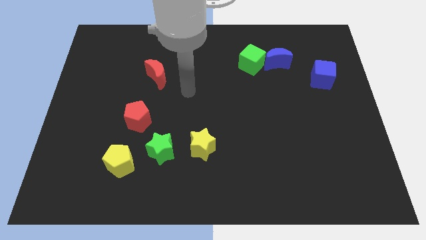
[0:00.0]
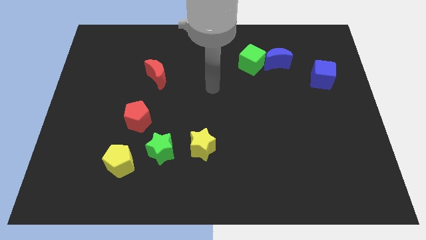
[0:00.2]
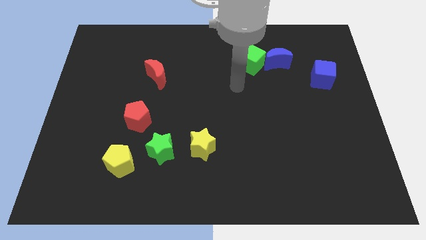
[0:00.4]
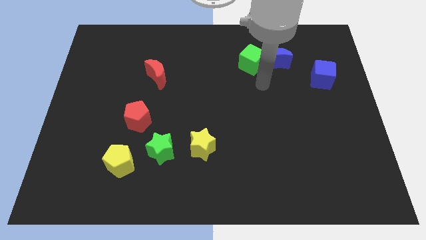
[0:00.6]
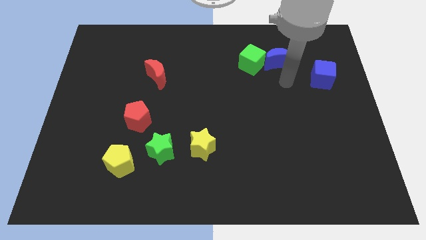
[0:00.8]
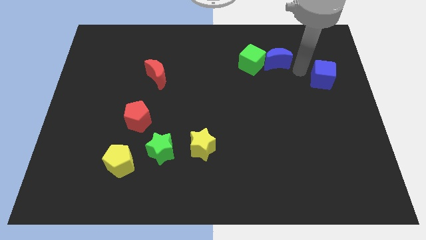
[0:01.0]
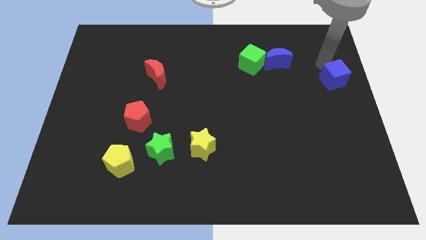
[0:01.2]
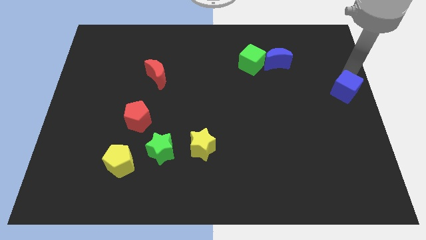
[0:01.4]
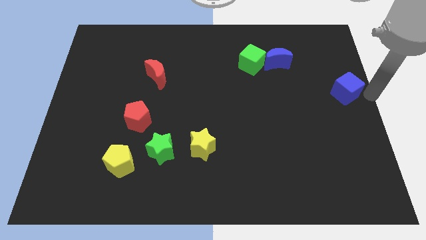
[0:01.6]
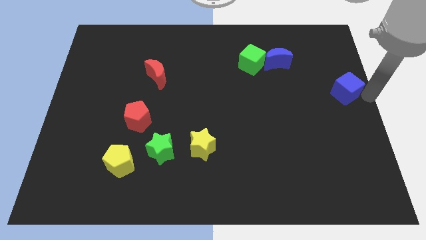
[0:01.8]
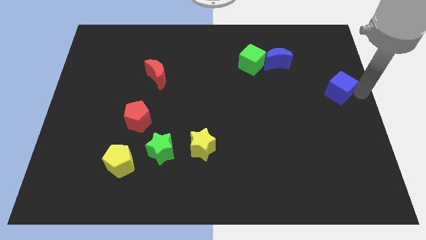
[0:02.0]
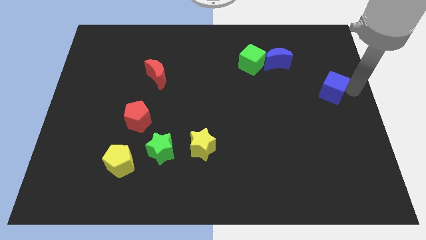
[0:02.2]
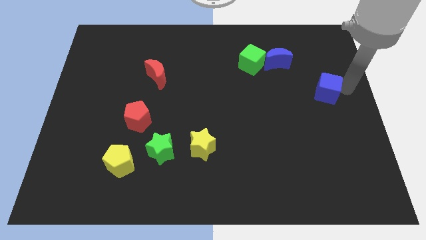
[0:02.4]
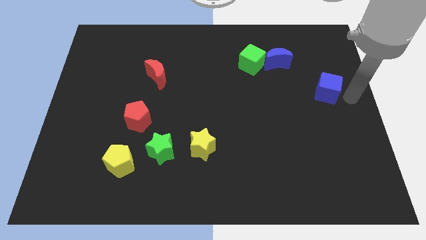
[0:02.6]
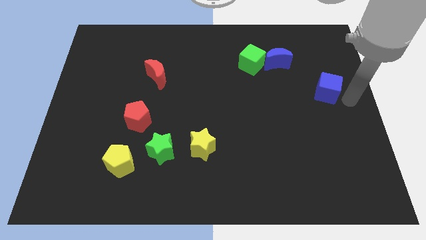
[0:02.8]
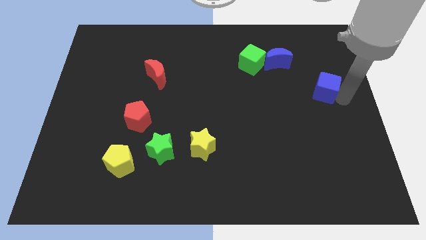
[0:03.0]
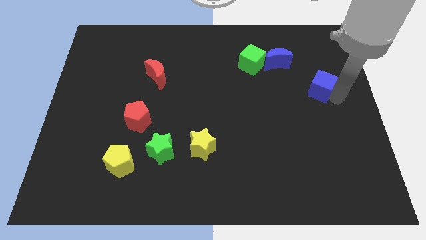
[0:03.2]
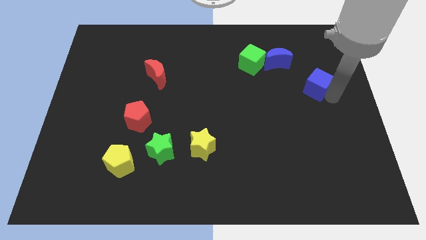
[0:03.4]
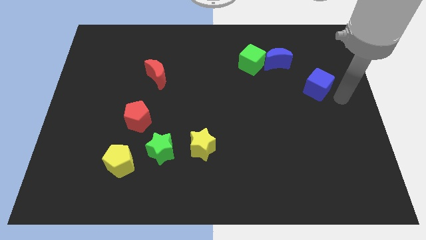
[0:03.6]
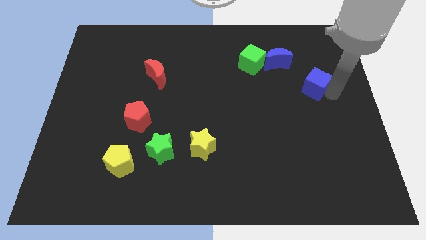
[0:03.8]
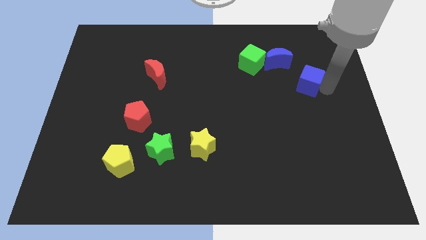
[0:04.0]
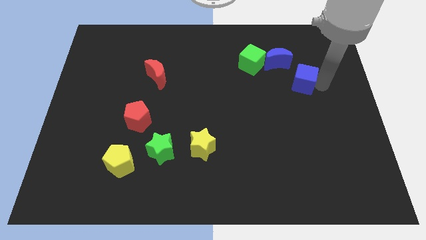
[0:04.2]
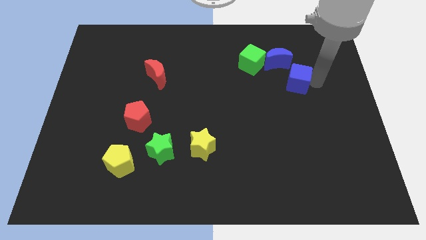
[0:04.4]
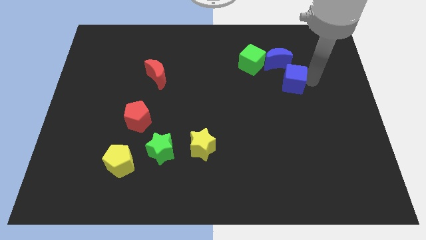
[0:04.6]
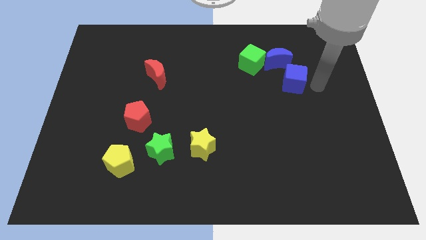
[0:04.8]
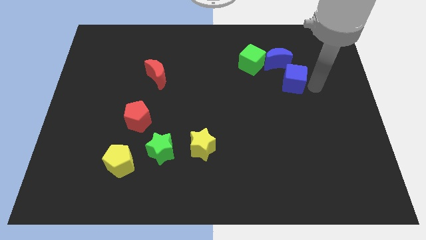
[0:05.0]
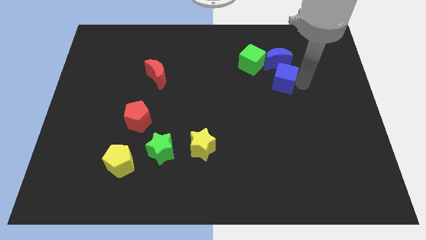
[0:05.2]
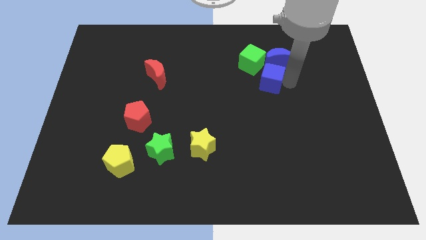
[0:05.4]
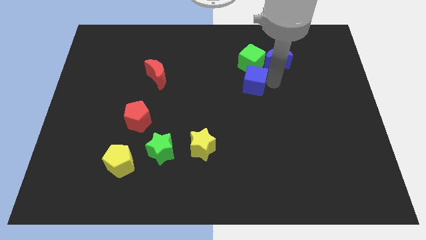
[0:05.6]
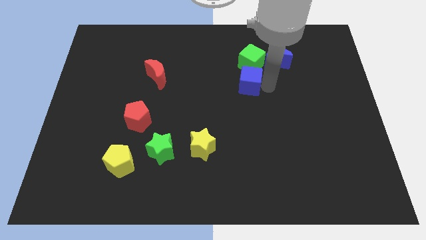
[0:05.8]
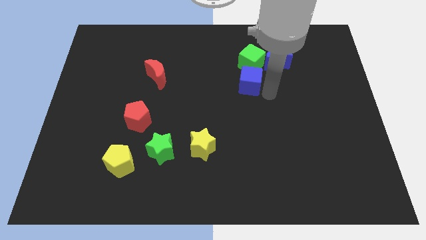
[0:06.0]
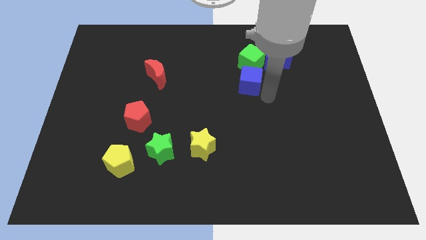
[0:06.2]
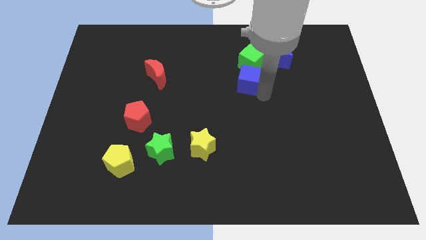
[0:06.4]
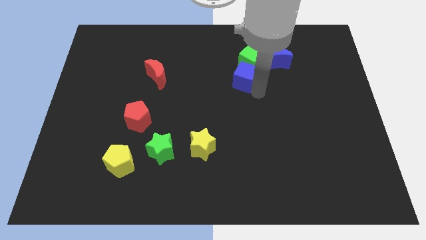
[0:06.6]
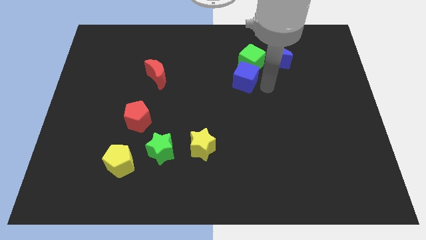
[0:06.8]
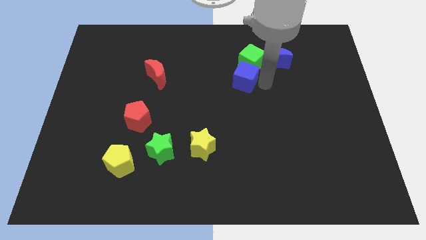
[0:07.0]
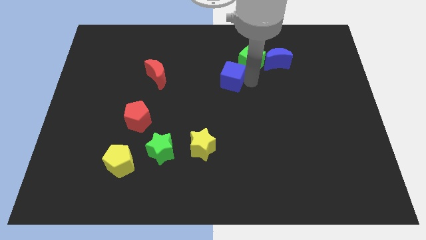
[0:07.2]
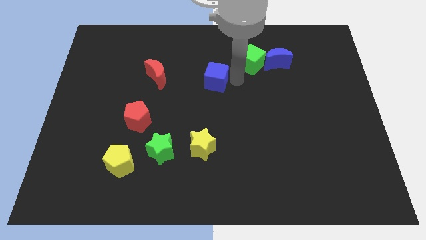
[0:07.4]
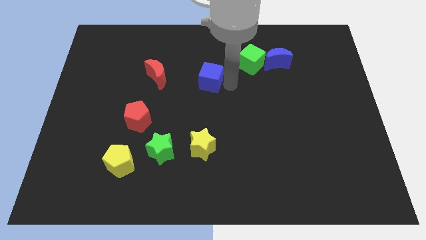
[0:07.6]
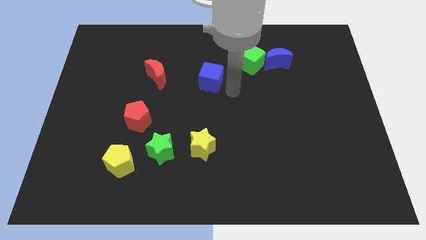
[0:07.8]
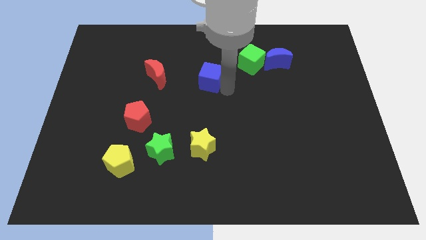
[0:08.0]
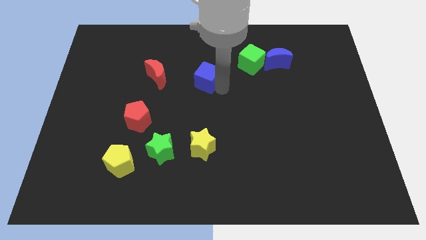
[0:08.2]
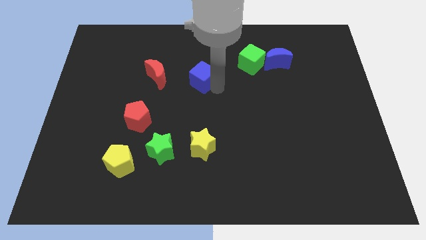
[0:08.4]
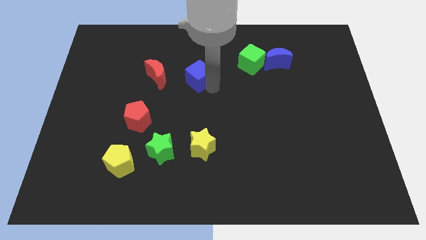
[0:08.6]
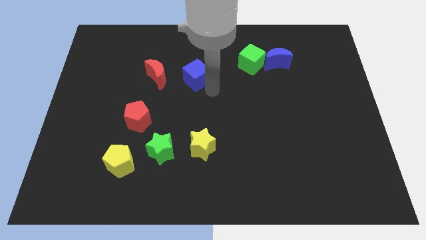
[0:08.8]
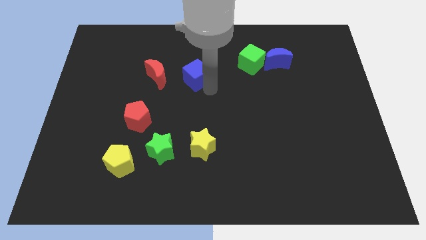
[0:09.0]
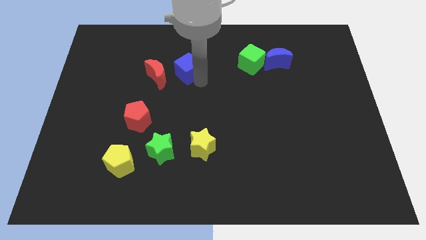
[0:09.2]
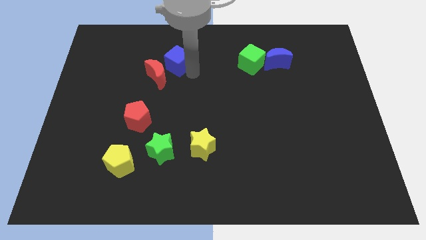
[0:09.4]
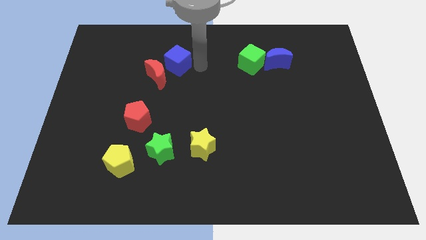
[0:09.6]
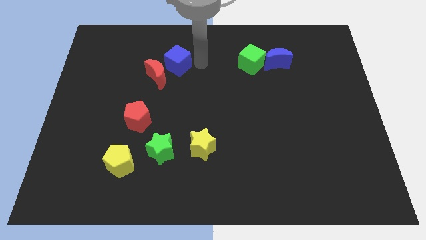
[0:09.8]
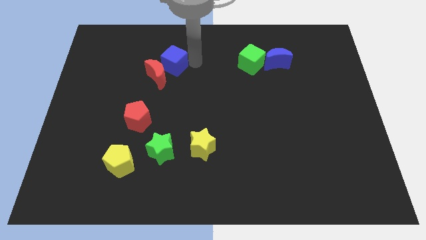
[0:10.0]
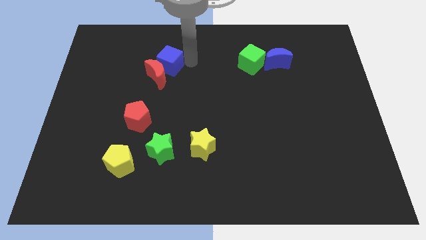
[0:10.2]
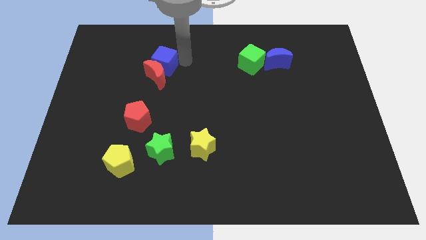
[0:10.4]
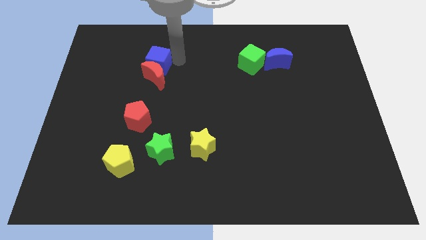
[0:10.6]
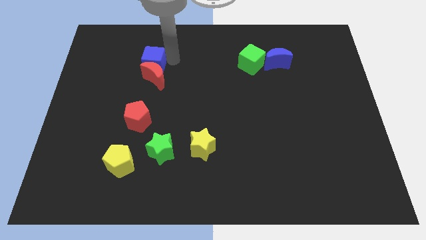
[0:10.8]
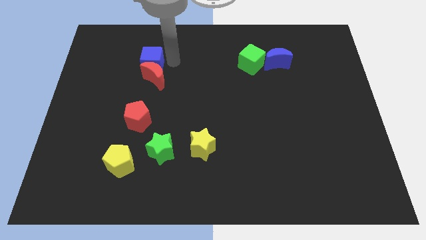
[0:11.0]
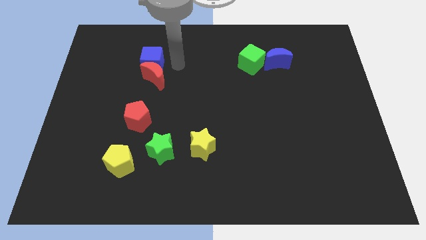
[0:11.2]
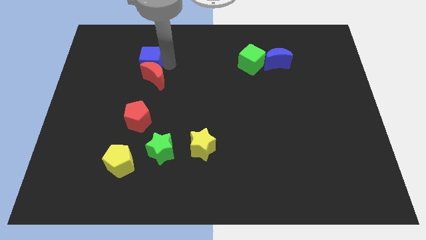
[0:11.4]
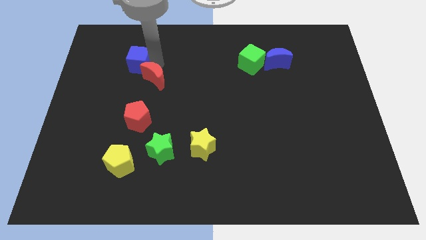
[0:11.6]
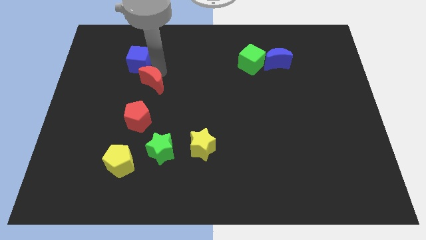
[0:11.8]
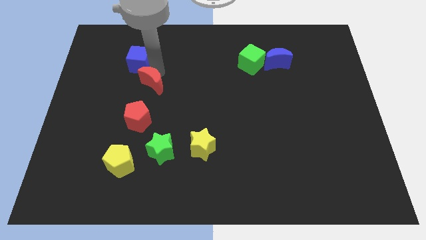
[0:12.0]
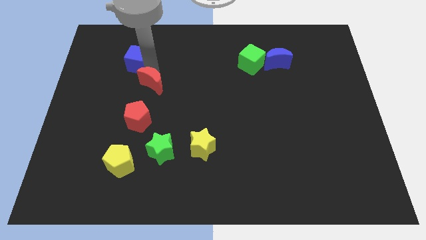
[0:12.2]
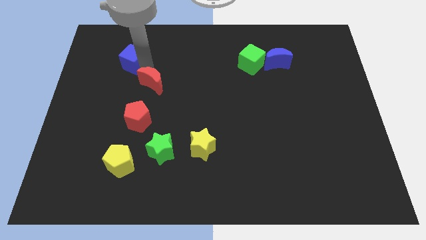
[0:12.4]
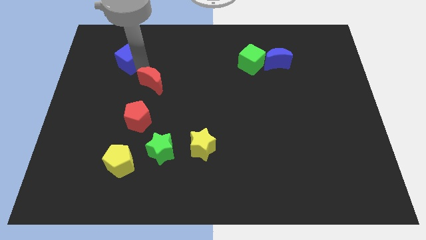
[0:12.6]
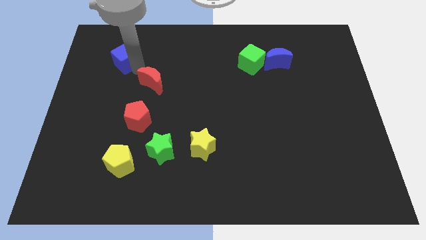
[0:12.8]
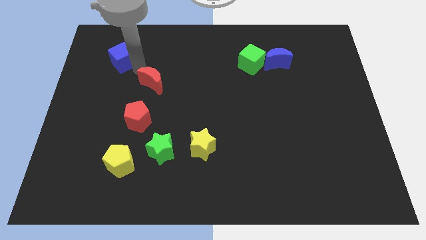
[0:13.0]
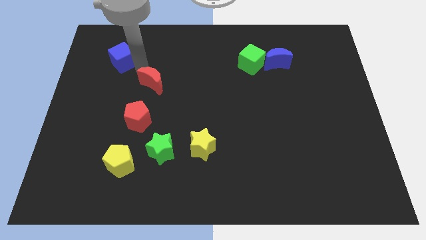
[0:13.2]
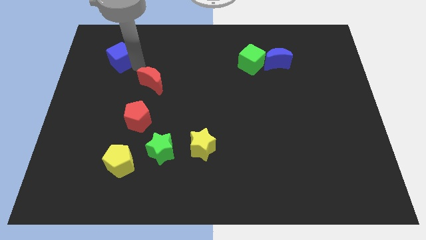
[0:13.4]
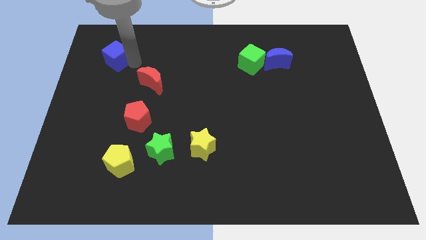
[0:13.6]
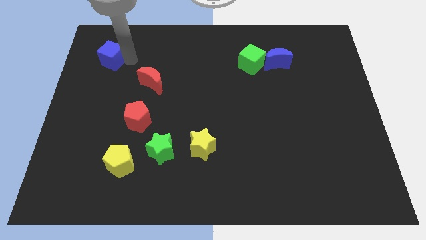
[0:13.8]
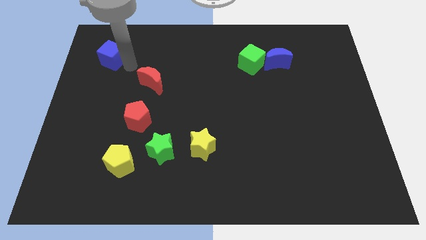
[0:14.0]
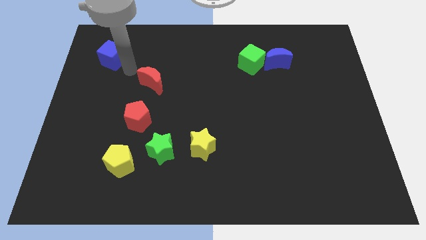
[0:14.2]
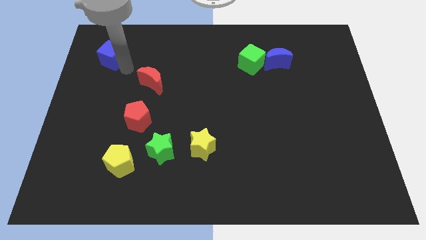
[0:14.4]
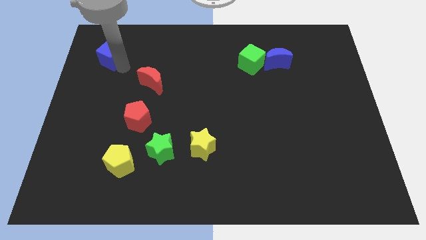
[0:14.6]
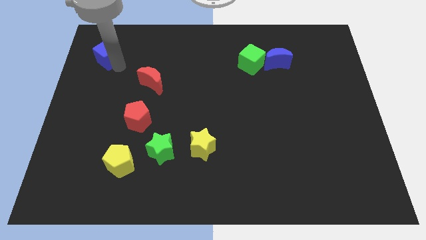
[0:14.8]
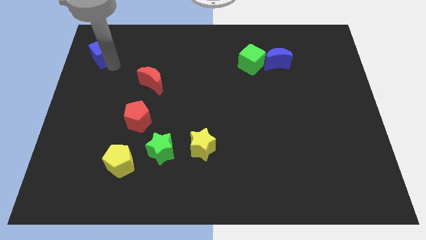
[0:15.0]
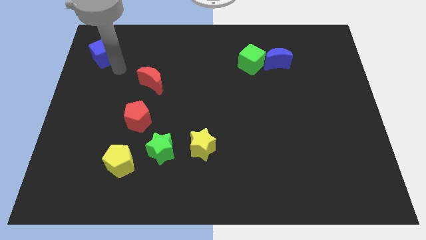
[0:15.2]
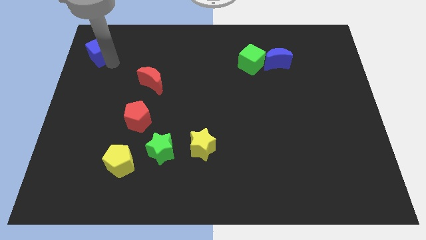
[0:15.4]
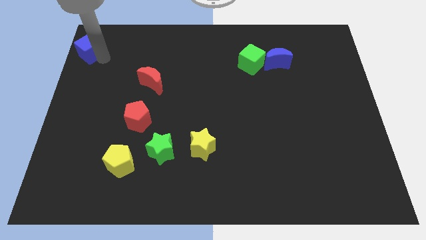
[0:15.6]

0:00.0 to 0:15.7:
slide the blue cube to the top left corner
